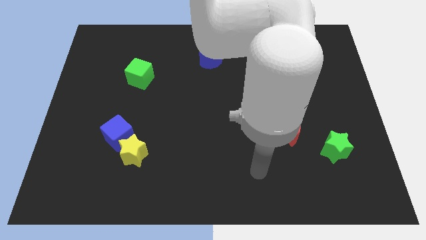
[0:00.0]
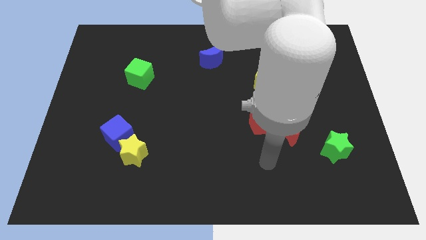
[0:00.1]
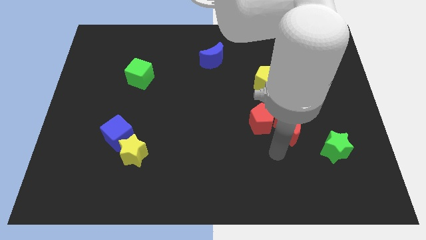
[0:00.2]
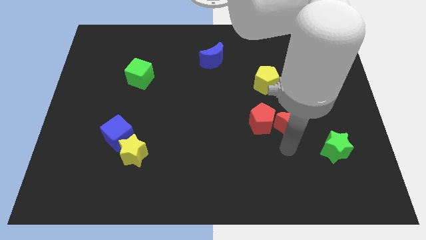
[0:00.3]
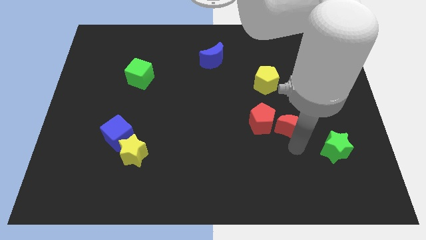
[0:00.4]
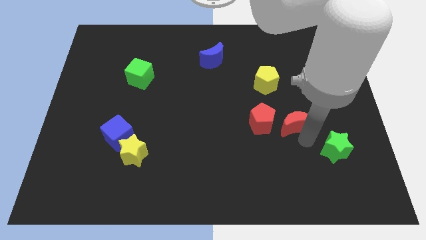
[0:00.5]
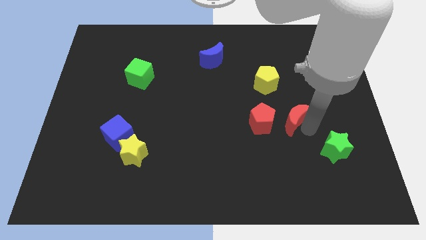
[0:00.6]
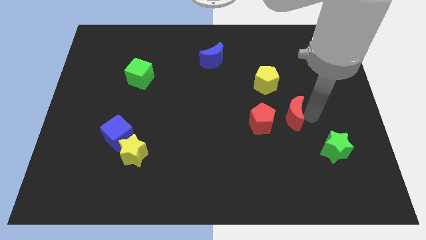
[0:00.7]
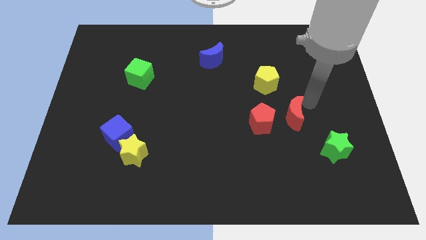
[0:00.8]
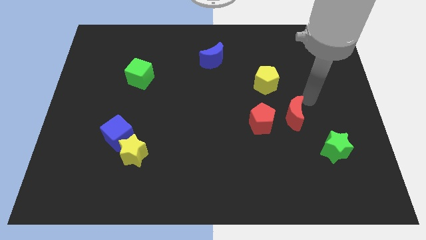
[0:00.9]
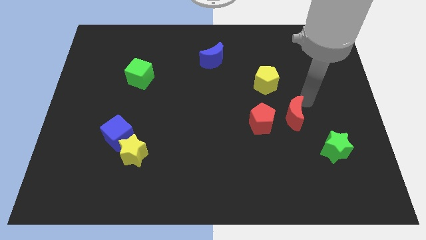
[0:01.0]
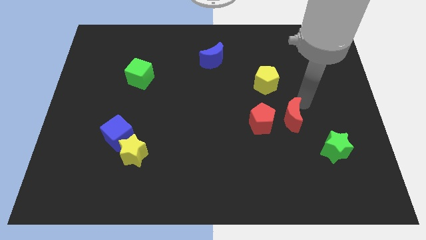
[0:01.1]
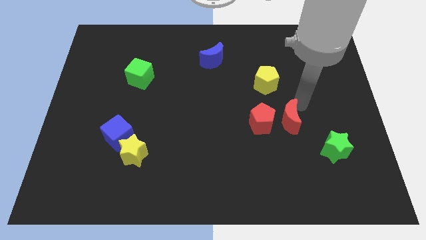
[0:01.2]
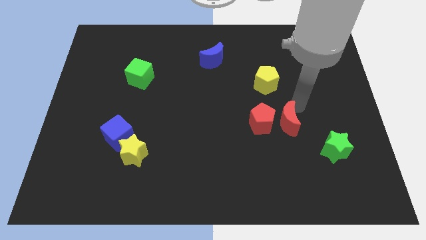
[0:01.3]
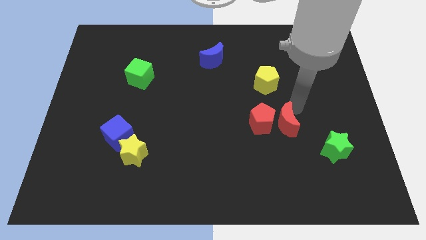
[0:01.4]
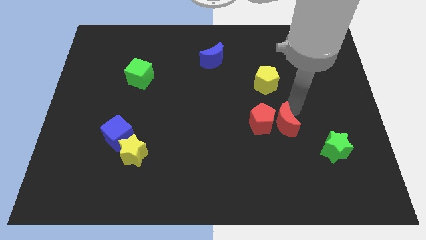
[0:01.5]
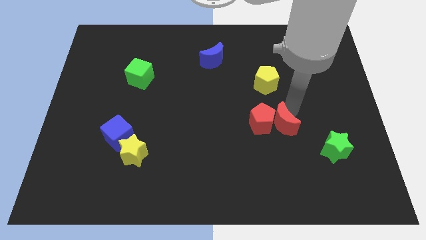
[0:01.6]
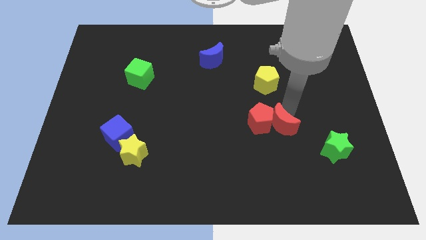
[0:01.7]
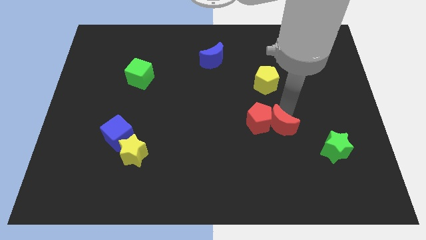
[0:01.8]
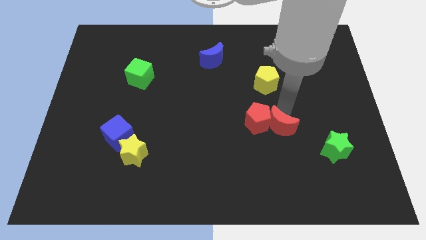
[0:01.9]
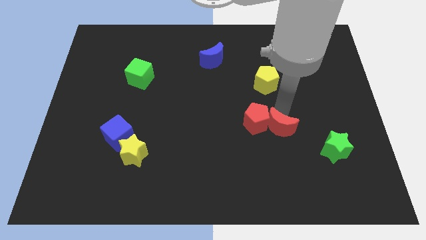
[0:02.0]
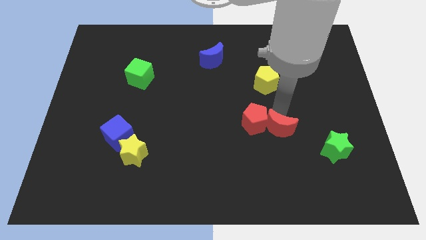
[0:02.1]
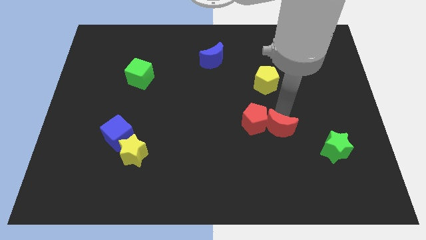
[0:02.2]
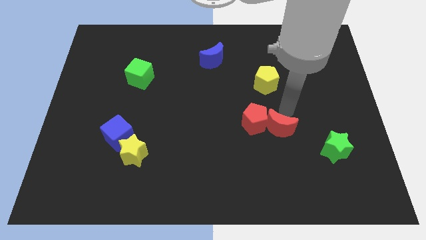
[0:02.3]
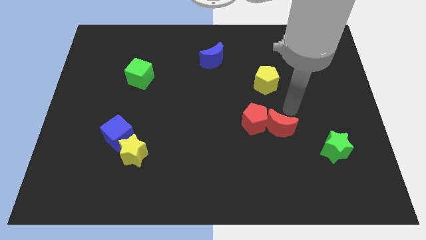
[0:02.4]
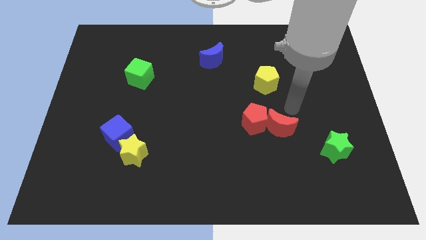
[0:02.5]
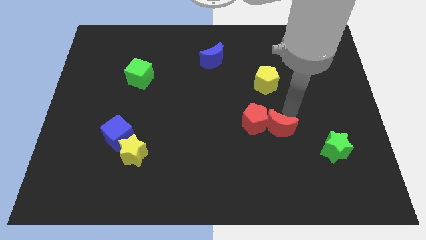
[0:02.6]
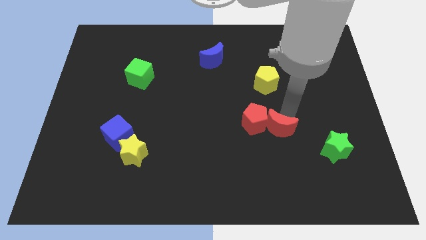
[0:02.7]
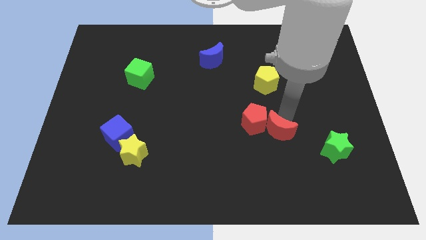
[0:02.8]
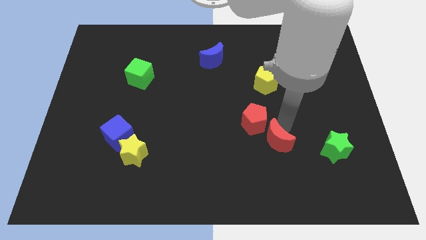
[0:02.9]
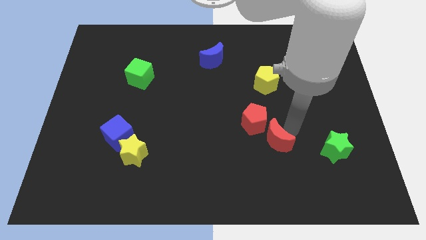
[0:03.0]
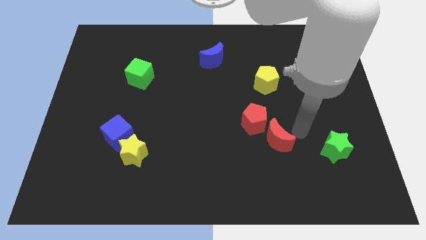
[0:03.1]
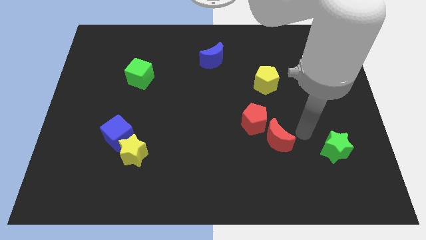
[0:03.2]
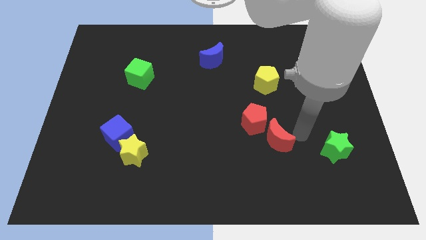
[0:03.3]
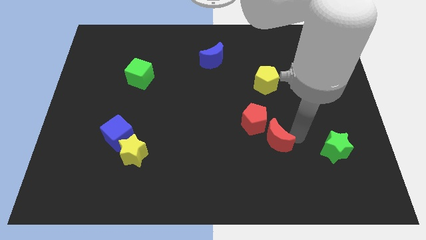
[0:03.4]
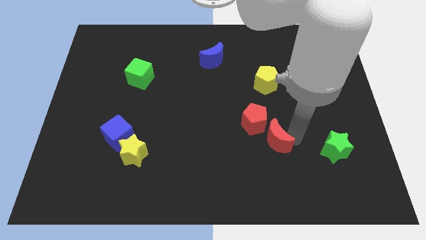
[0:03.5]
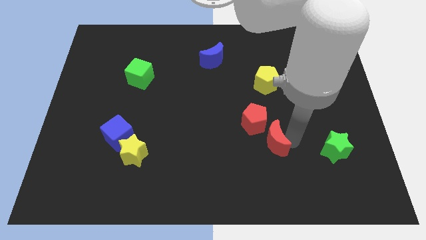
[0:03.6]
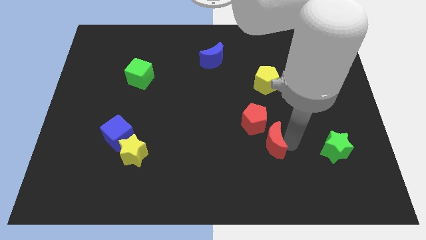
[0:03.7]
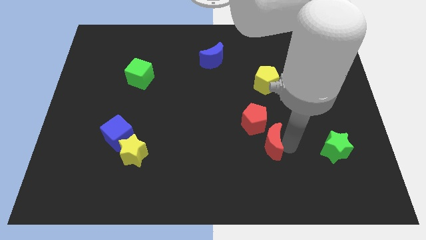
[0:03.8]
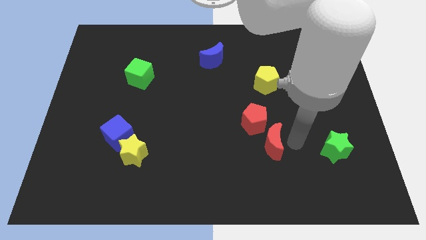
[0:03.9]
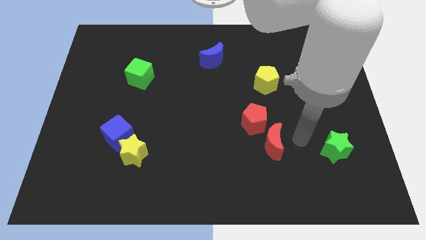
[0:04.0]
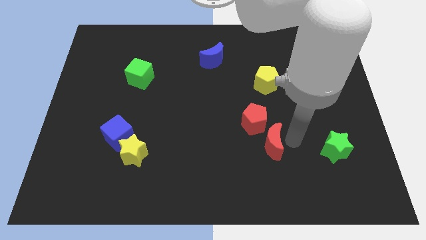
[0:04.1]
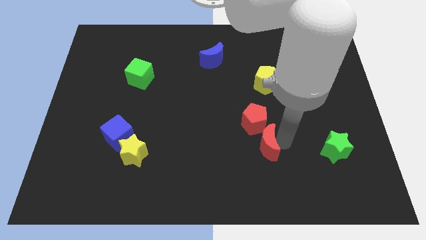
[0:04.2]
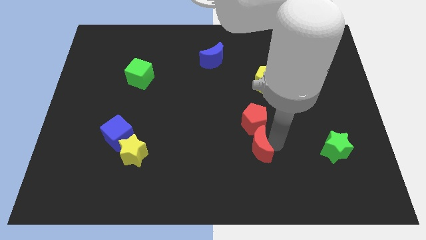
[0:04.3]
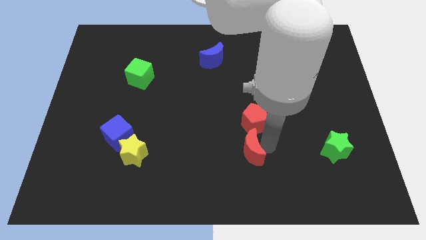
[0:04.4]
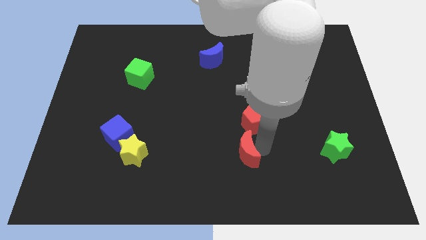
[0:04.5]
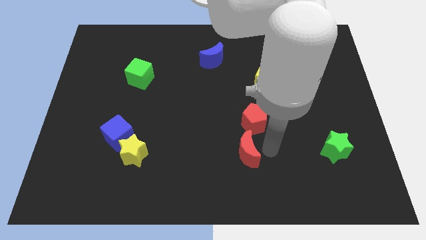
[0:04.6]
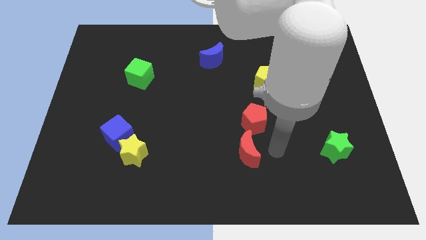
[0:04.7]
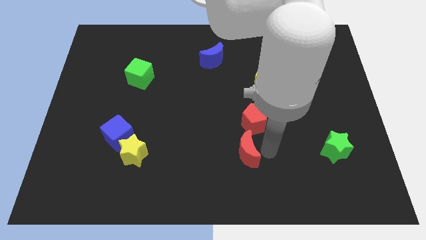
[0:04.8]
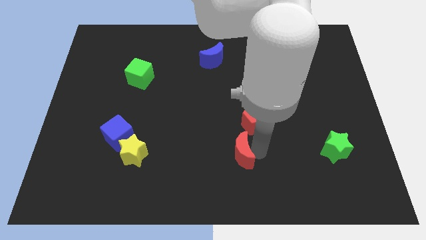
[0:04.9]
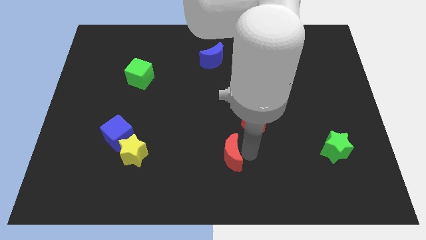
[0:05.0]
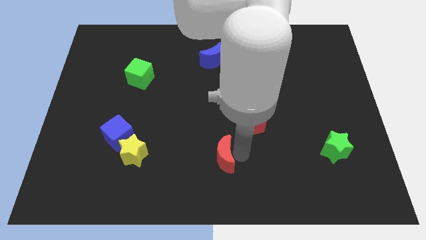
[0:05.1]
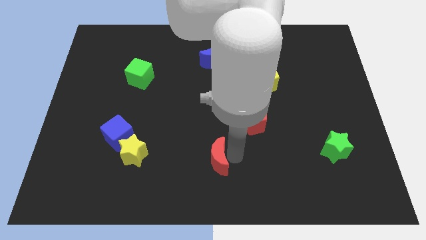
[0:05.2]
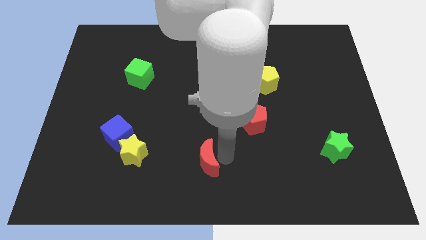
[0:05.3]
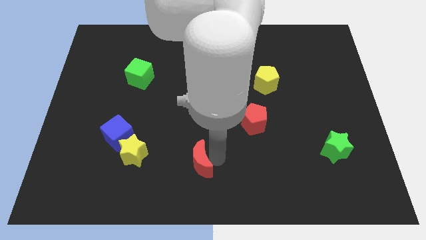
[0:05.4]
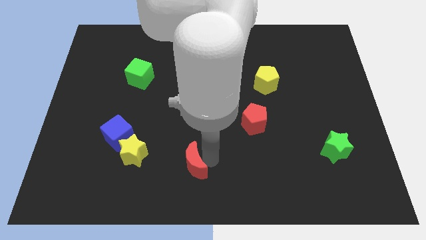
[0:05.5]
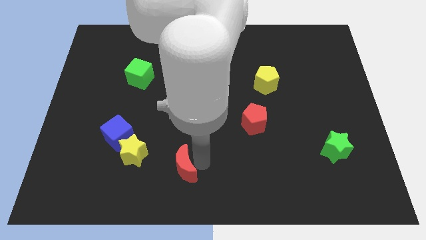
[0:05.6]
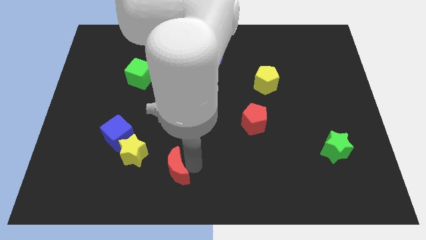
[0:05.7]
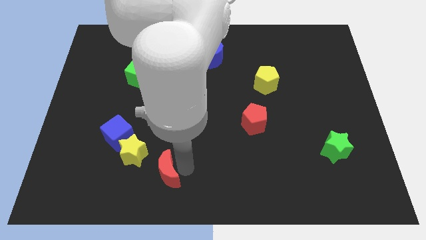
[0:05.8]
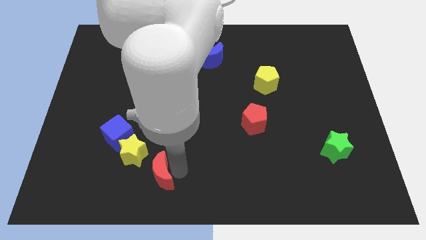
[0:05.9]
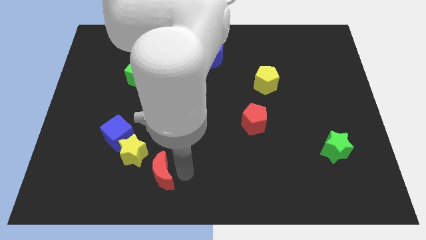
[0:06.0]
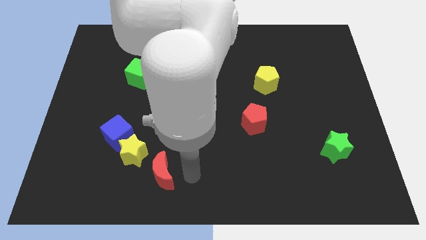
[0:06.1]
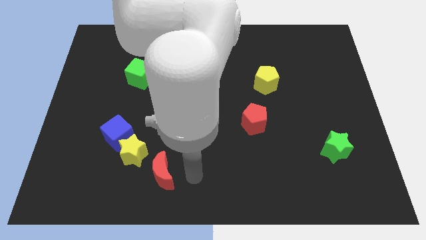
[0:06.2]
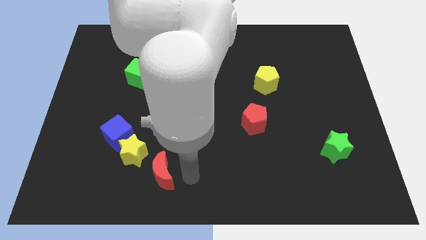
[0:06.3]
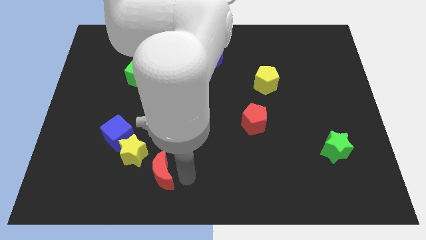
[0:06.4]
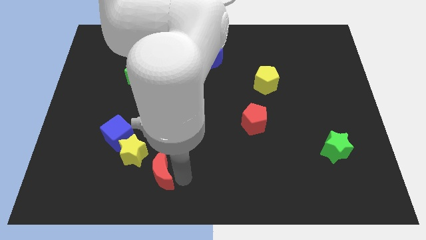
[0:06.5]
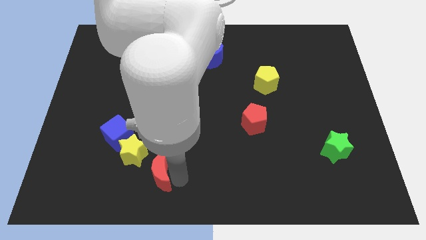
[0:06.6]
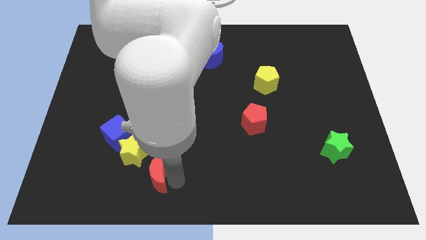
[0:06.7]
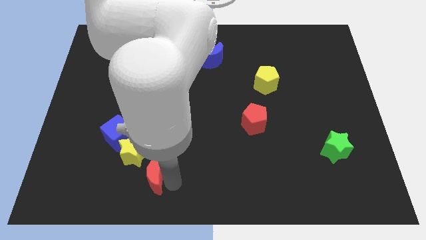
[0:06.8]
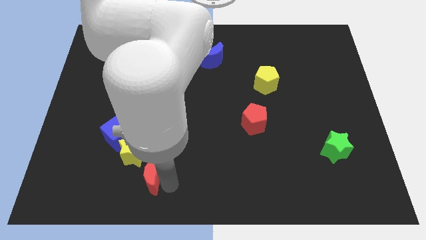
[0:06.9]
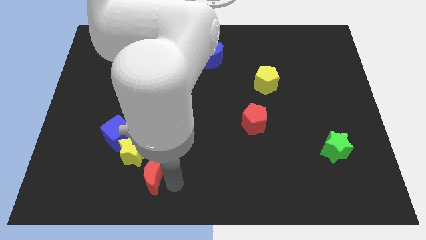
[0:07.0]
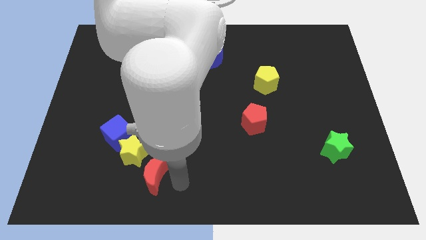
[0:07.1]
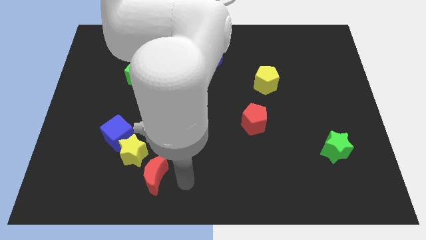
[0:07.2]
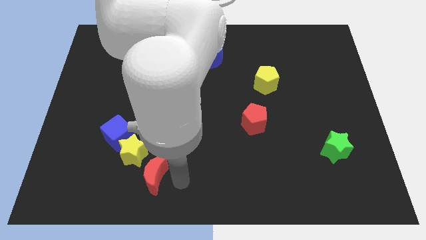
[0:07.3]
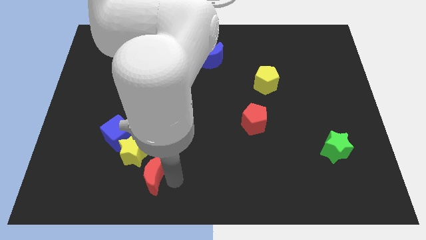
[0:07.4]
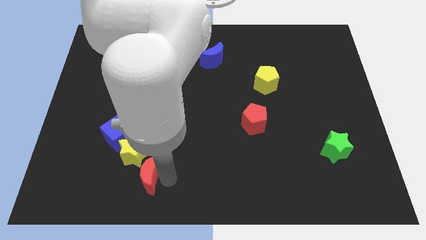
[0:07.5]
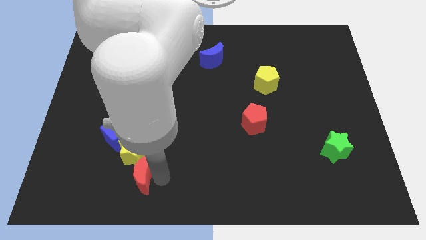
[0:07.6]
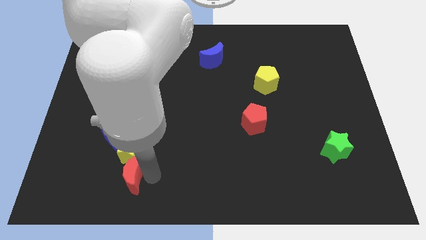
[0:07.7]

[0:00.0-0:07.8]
move the red moon diagonally down and to the left of the yellow star
